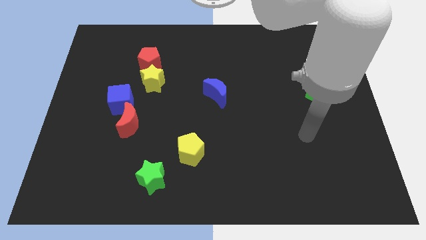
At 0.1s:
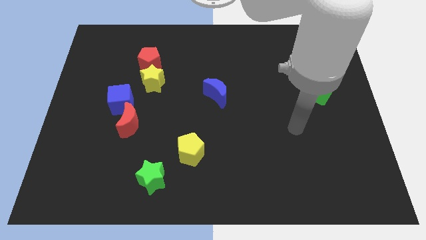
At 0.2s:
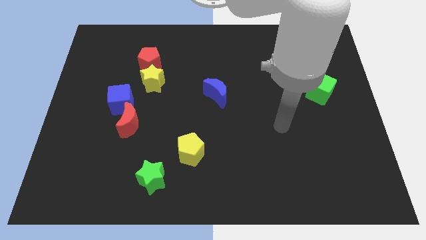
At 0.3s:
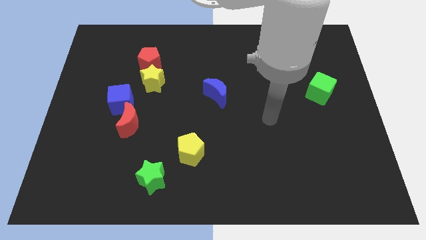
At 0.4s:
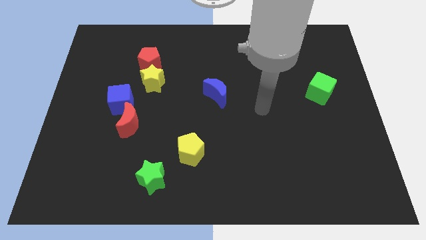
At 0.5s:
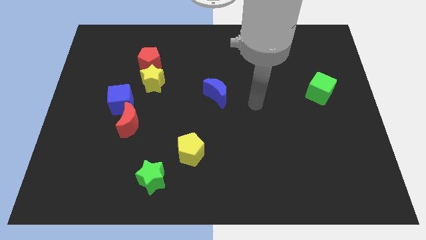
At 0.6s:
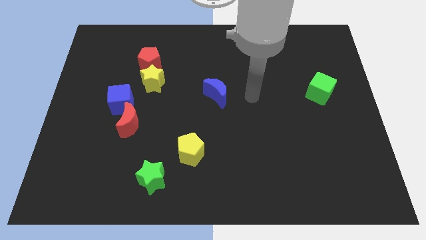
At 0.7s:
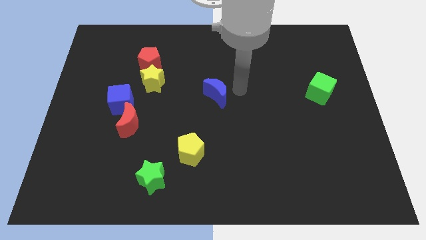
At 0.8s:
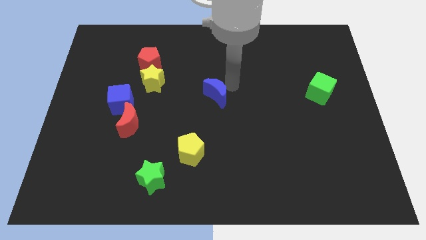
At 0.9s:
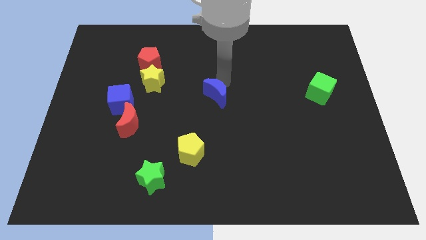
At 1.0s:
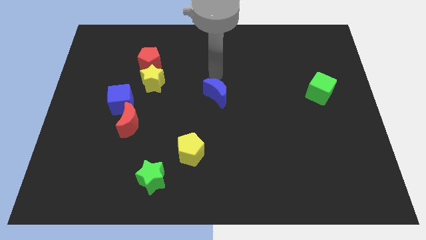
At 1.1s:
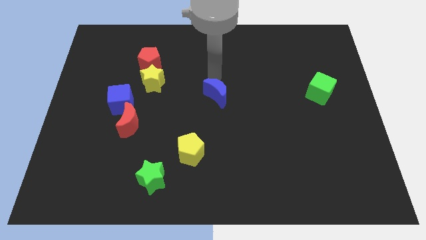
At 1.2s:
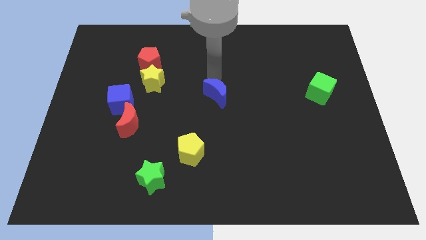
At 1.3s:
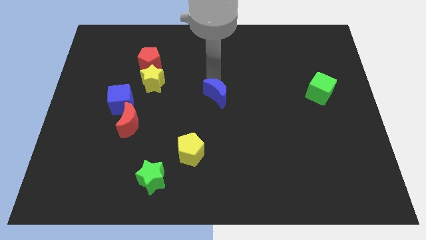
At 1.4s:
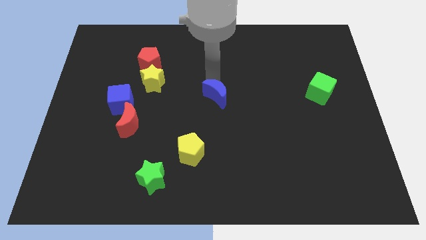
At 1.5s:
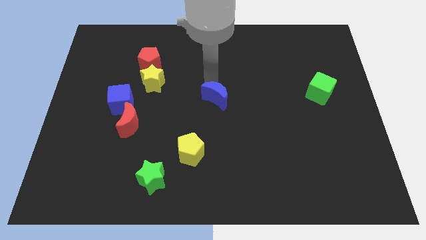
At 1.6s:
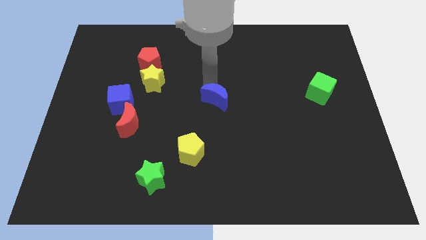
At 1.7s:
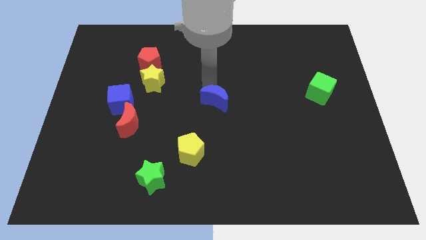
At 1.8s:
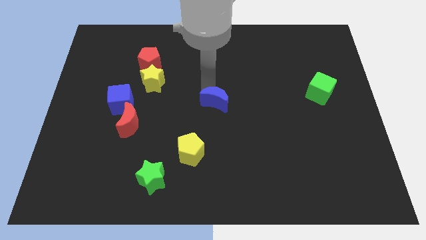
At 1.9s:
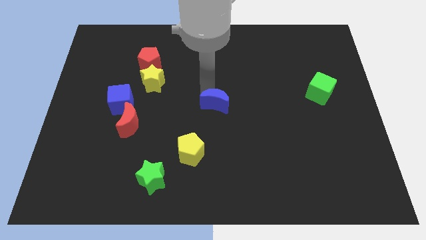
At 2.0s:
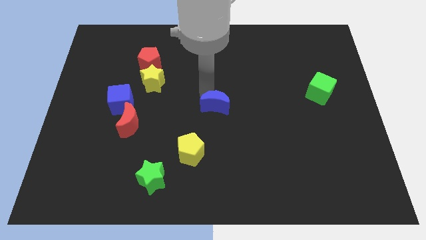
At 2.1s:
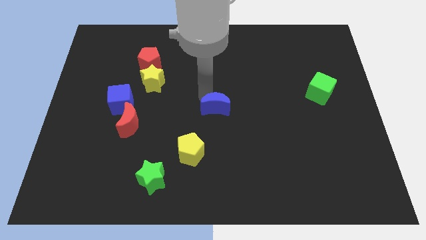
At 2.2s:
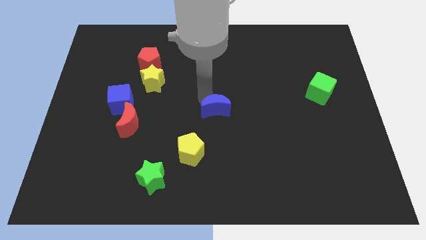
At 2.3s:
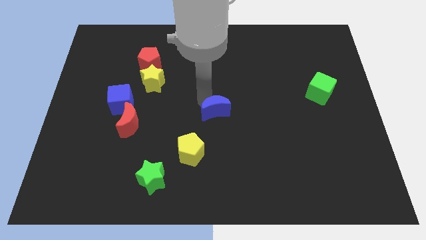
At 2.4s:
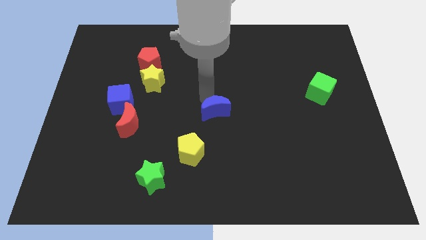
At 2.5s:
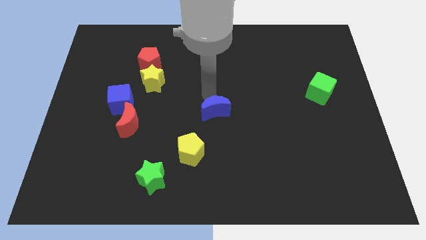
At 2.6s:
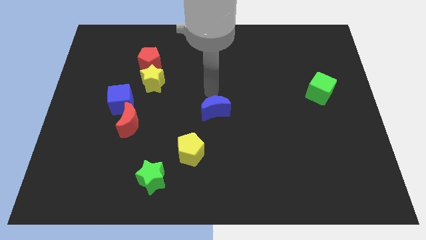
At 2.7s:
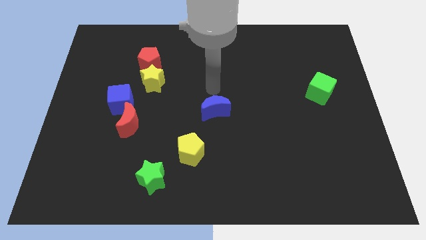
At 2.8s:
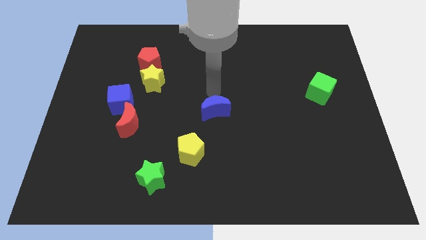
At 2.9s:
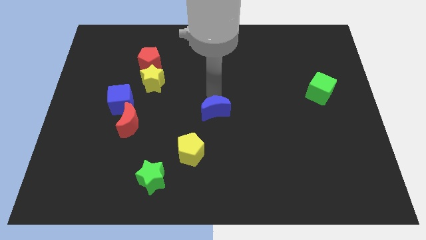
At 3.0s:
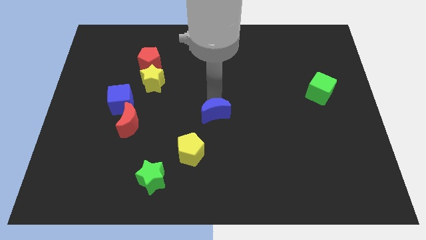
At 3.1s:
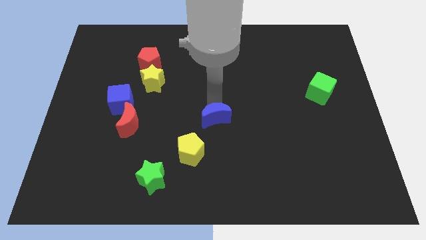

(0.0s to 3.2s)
slide the blue moon slightly down

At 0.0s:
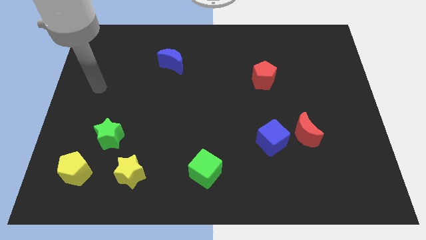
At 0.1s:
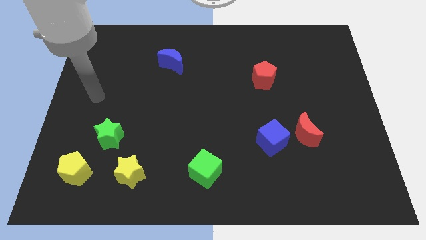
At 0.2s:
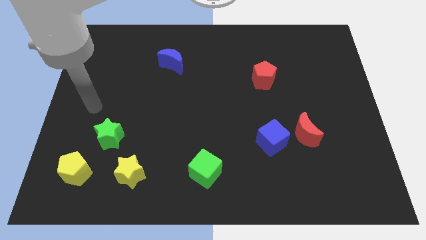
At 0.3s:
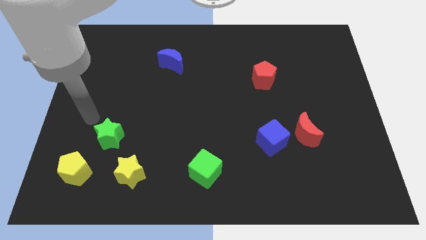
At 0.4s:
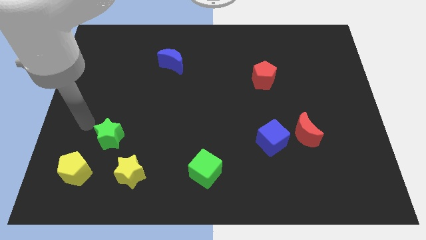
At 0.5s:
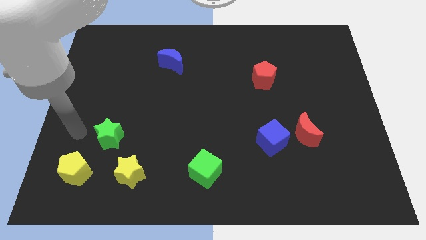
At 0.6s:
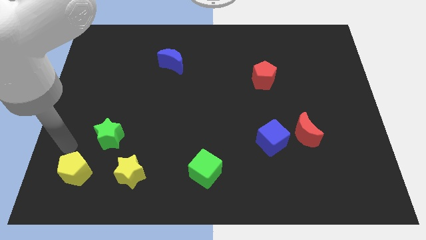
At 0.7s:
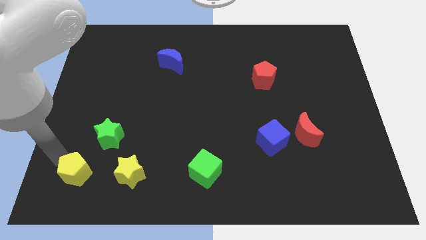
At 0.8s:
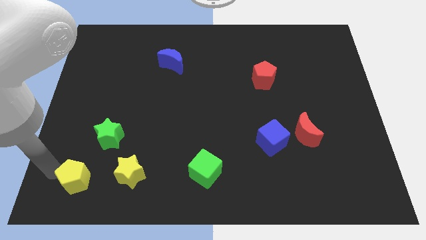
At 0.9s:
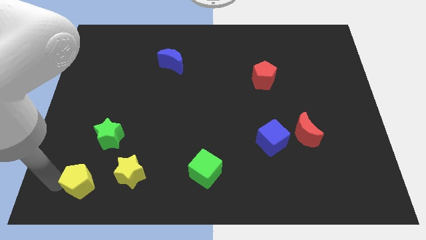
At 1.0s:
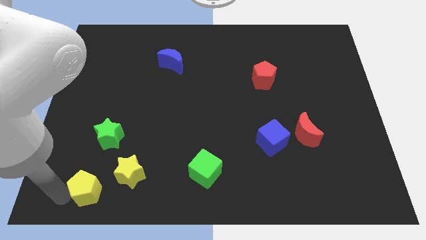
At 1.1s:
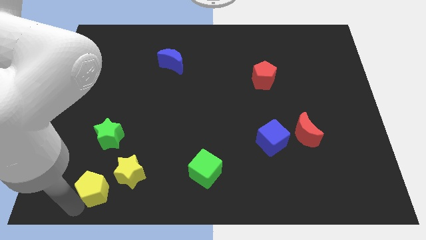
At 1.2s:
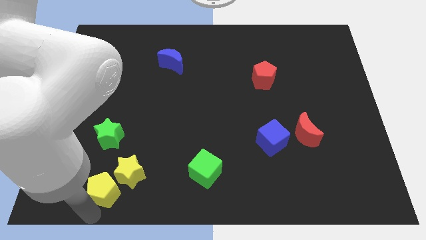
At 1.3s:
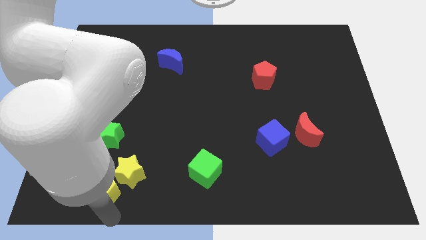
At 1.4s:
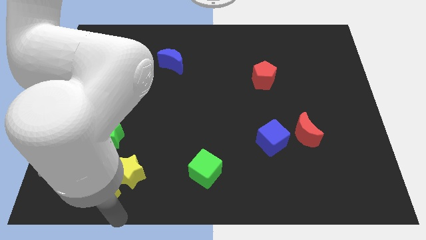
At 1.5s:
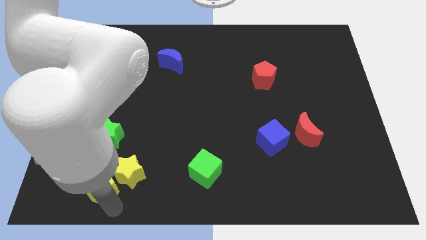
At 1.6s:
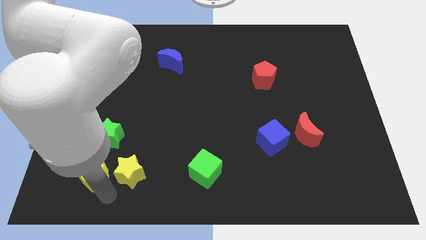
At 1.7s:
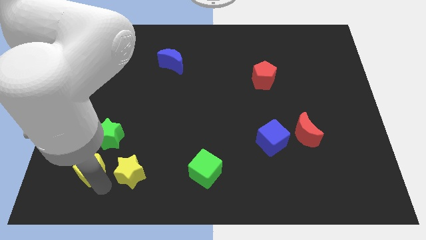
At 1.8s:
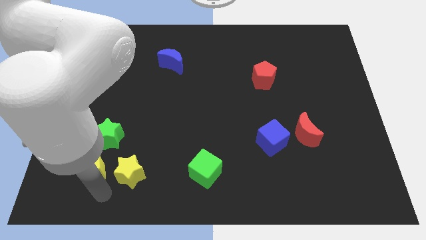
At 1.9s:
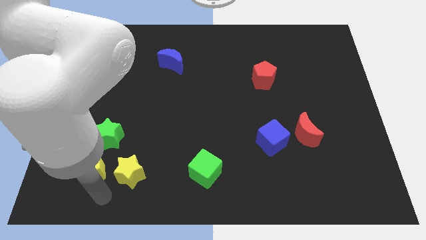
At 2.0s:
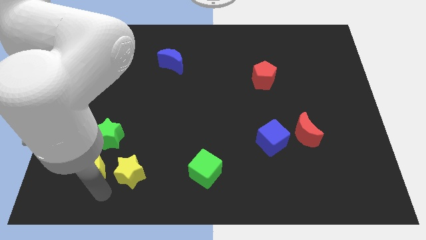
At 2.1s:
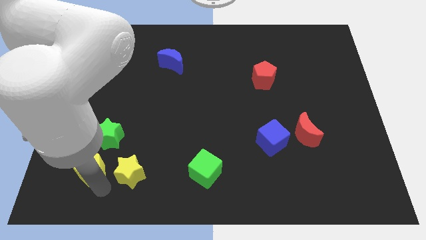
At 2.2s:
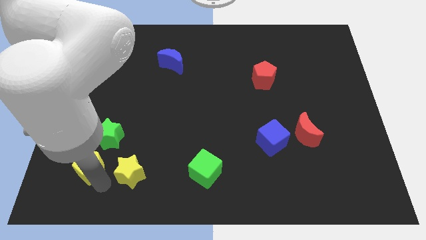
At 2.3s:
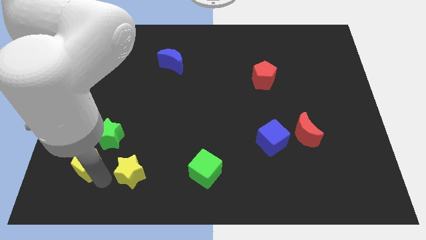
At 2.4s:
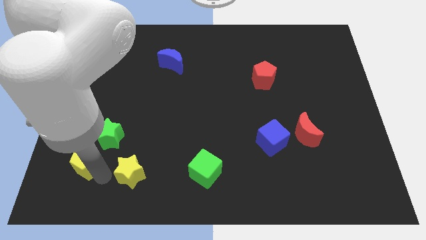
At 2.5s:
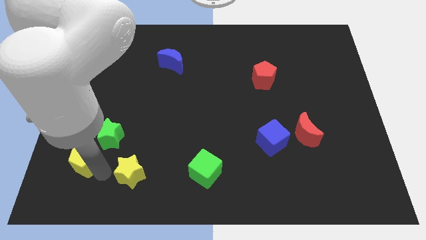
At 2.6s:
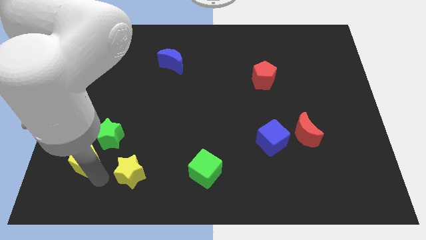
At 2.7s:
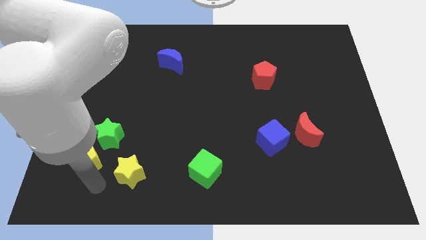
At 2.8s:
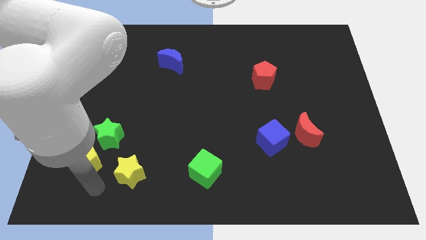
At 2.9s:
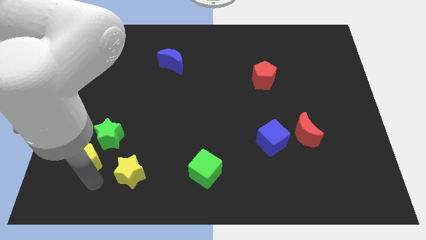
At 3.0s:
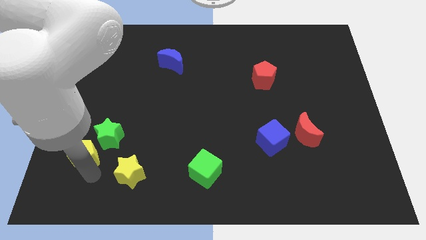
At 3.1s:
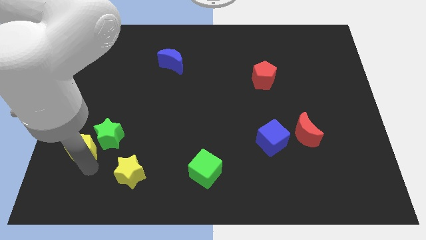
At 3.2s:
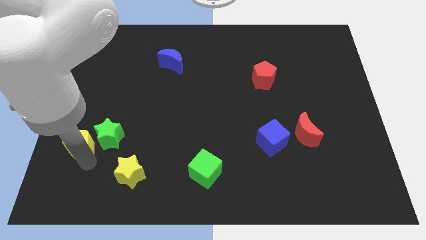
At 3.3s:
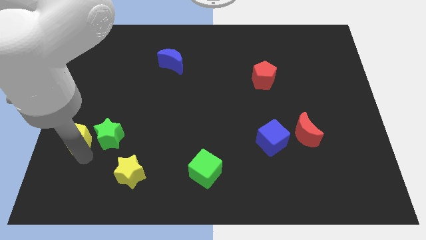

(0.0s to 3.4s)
slightly push the yellow pentagon up

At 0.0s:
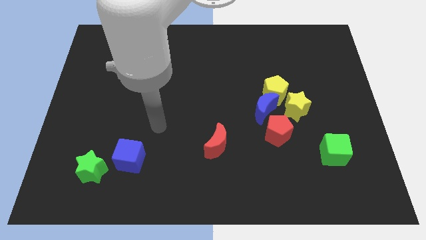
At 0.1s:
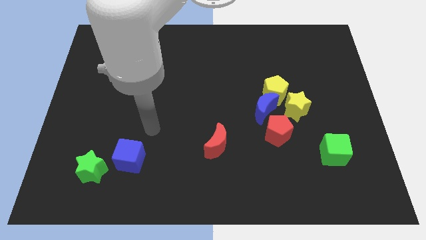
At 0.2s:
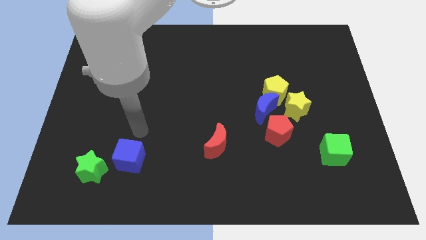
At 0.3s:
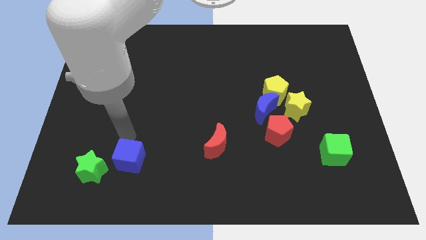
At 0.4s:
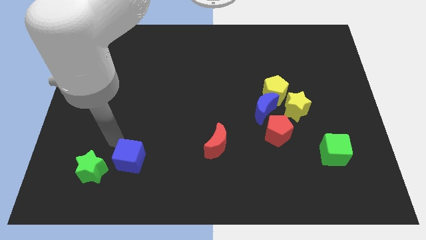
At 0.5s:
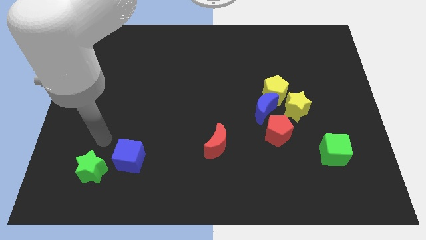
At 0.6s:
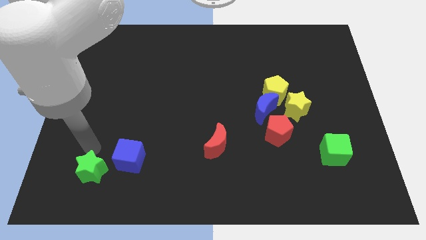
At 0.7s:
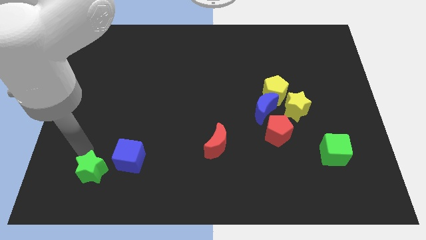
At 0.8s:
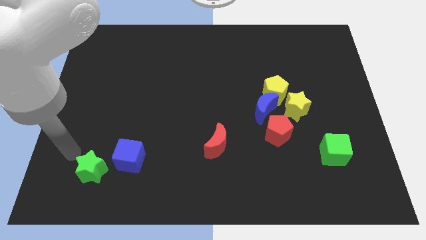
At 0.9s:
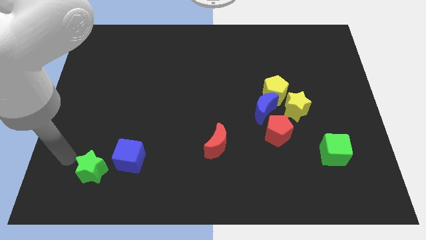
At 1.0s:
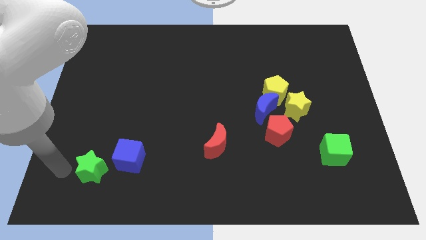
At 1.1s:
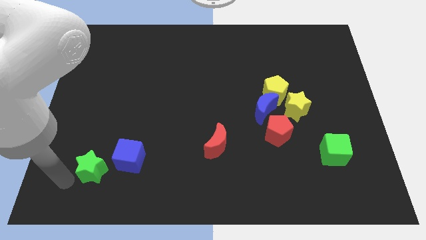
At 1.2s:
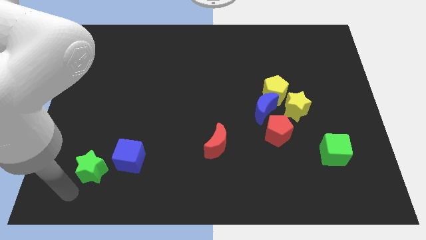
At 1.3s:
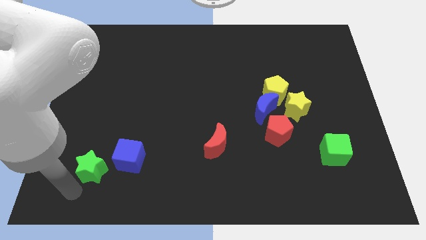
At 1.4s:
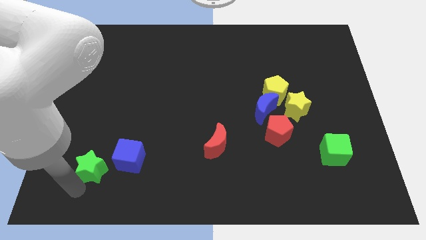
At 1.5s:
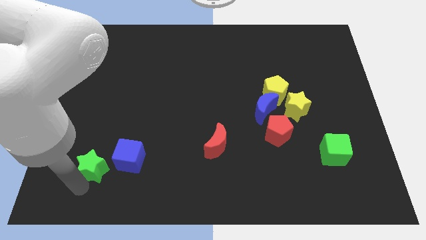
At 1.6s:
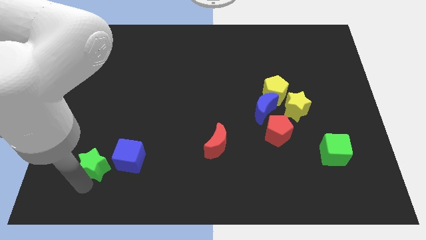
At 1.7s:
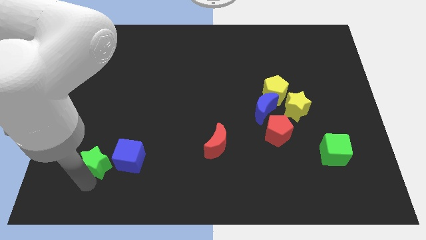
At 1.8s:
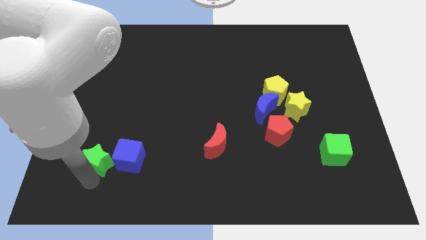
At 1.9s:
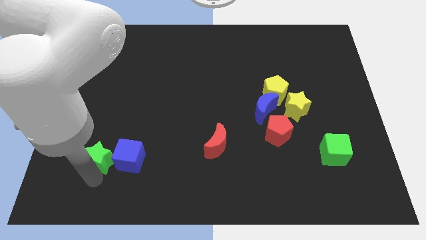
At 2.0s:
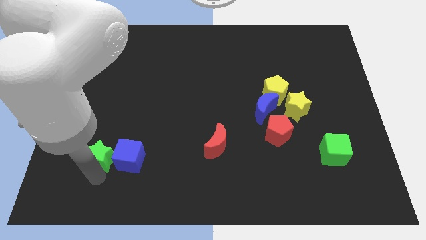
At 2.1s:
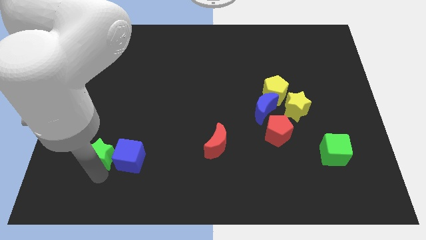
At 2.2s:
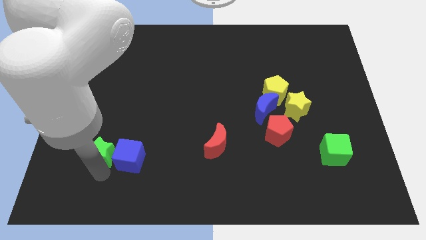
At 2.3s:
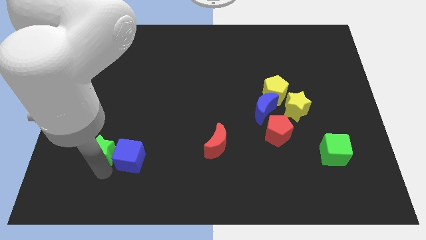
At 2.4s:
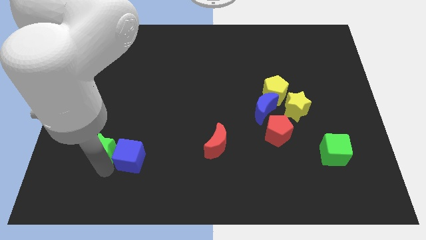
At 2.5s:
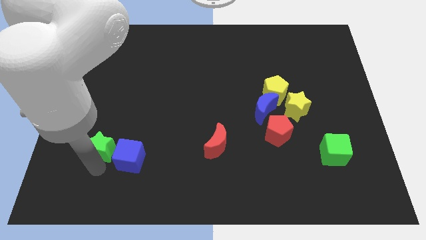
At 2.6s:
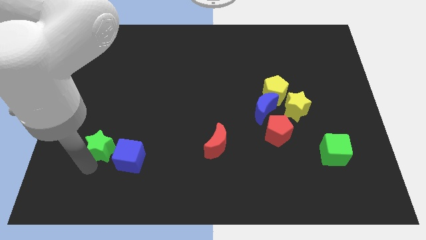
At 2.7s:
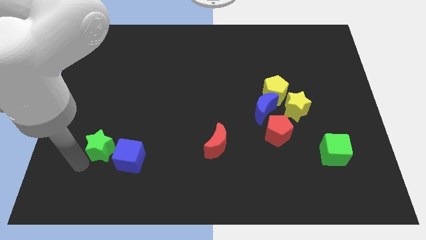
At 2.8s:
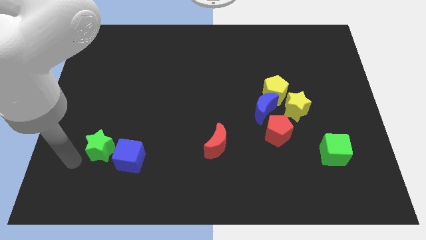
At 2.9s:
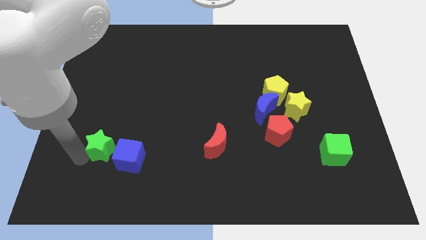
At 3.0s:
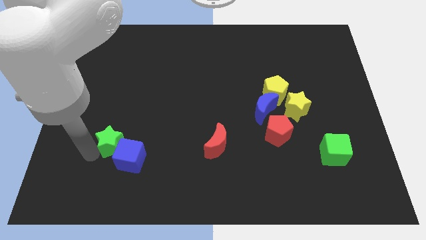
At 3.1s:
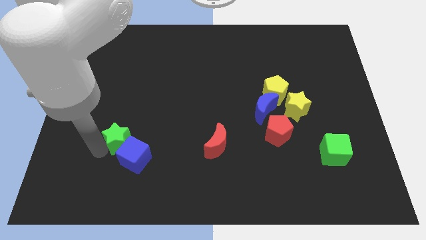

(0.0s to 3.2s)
slightly move the green star diagonally up and right
